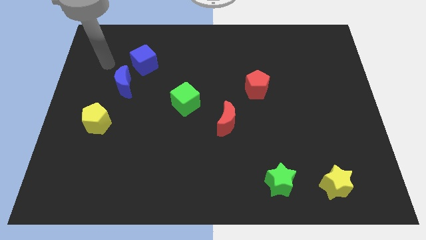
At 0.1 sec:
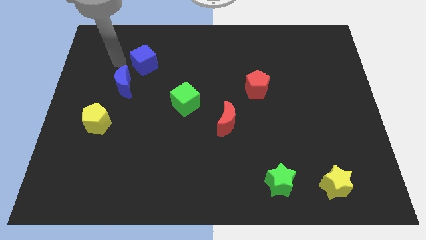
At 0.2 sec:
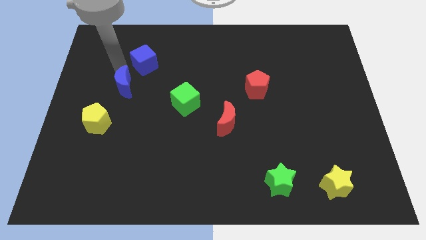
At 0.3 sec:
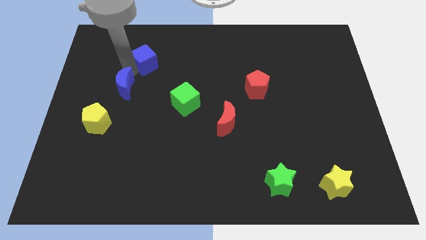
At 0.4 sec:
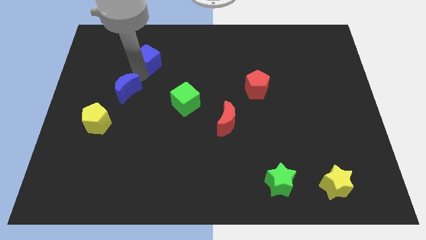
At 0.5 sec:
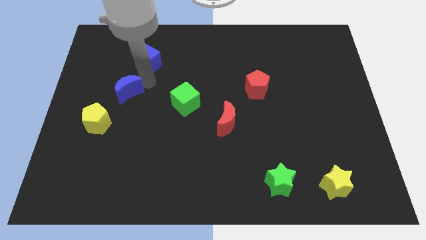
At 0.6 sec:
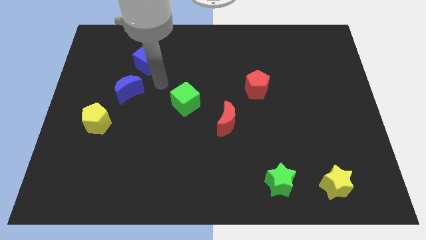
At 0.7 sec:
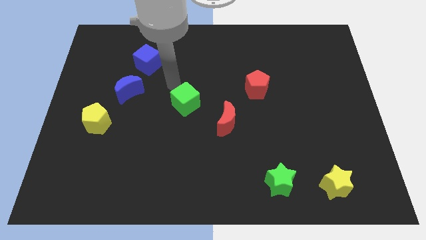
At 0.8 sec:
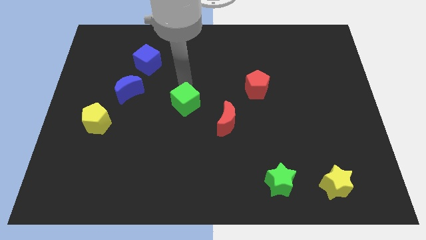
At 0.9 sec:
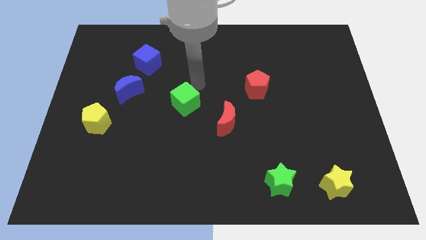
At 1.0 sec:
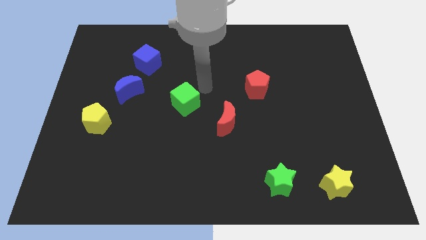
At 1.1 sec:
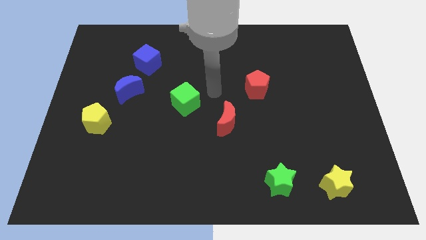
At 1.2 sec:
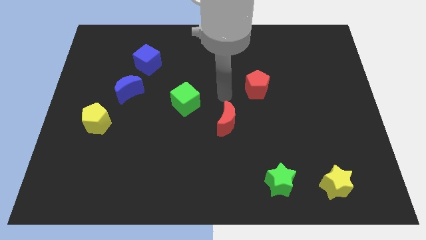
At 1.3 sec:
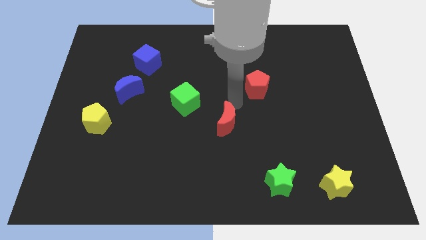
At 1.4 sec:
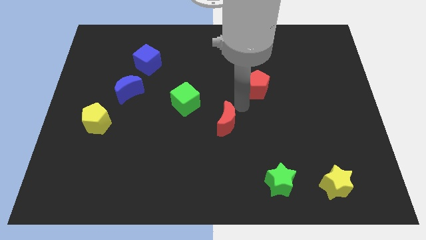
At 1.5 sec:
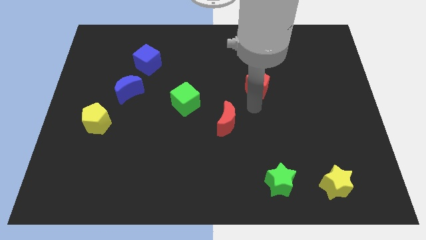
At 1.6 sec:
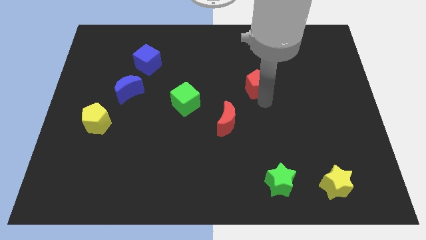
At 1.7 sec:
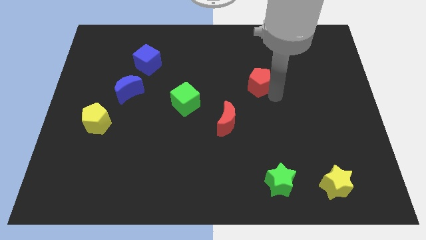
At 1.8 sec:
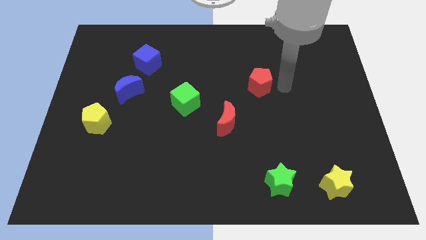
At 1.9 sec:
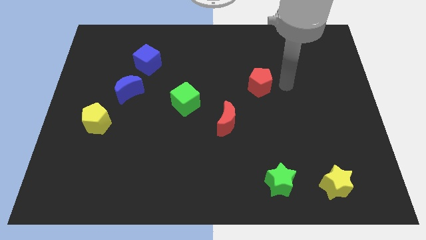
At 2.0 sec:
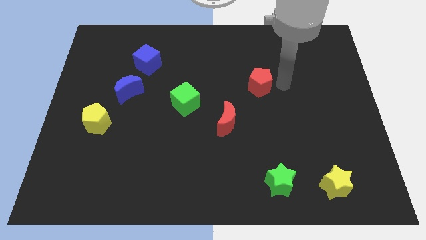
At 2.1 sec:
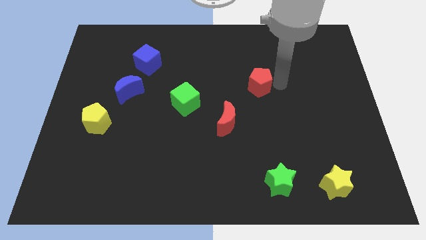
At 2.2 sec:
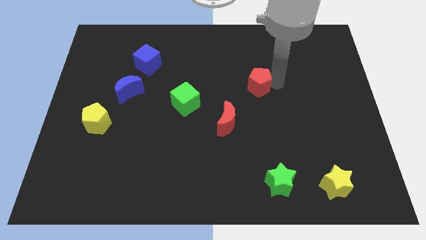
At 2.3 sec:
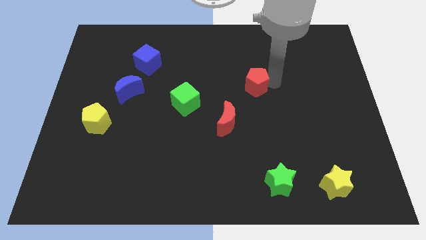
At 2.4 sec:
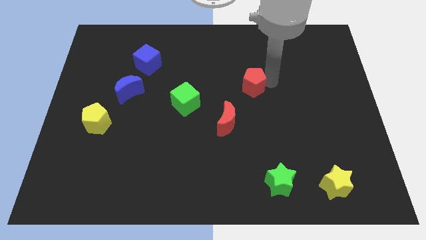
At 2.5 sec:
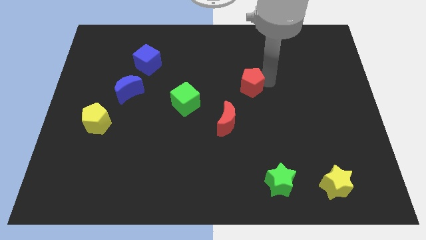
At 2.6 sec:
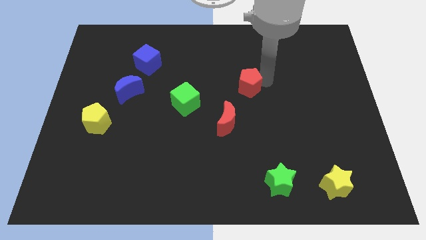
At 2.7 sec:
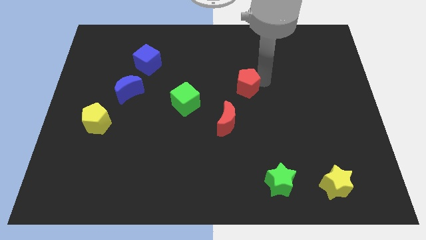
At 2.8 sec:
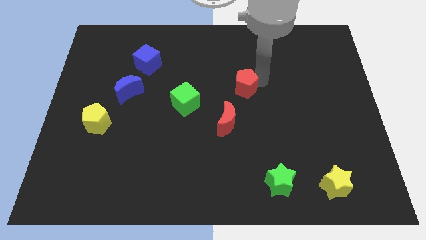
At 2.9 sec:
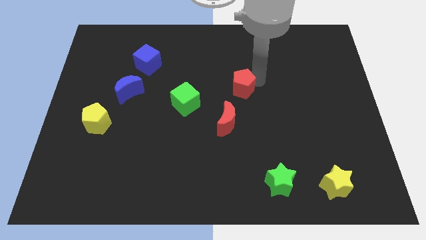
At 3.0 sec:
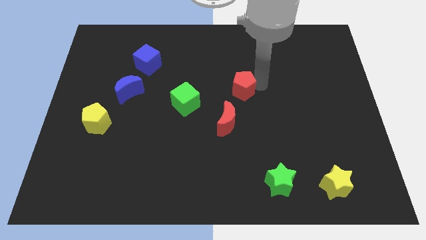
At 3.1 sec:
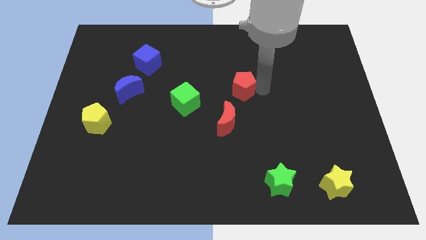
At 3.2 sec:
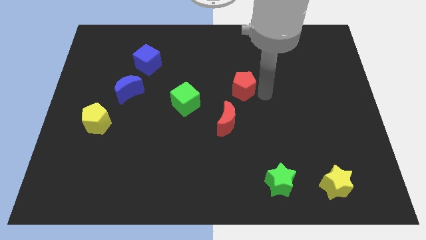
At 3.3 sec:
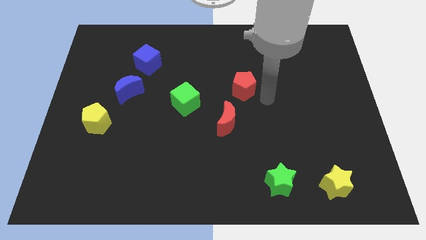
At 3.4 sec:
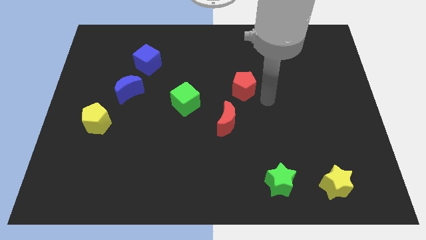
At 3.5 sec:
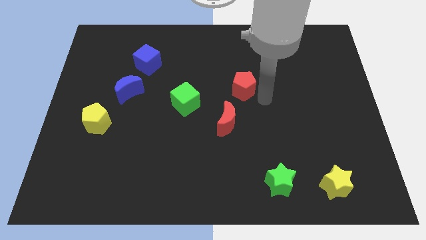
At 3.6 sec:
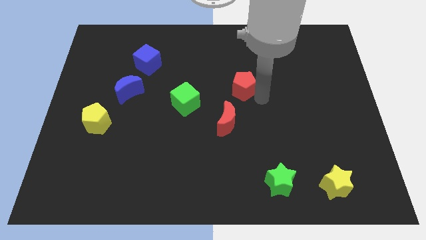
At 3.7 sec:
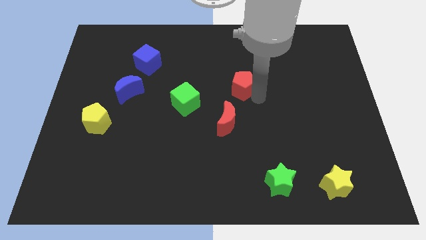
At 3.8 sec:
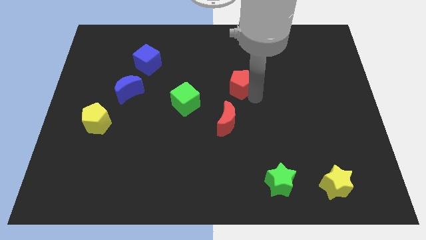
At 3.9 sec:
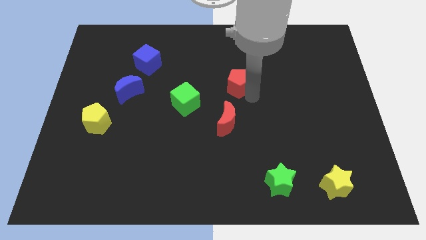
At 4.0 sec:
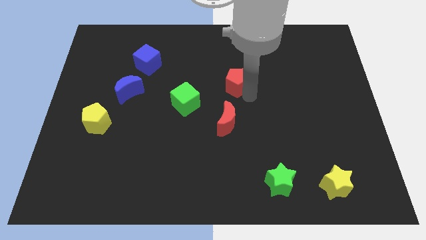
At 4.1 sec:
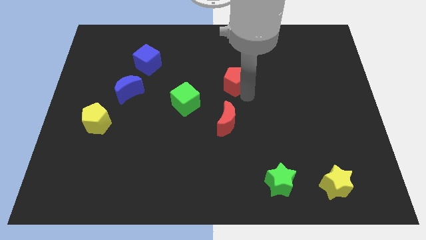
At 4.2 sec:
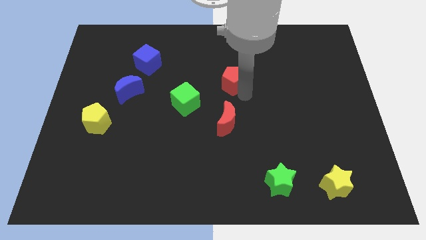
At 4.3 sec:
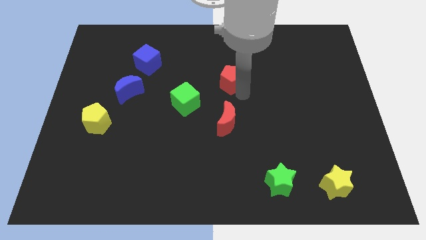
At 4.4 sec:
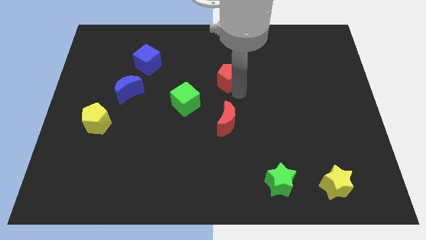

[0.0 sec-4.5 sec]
push the red pentagon a bit left

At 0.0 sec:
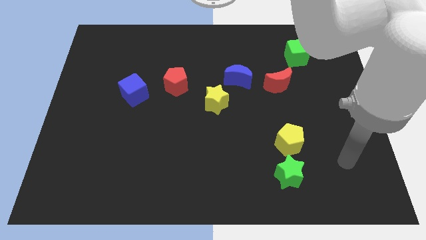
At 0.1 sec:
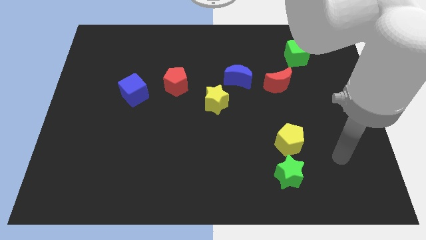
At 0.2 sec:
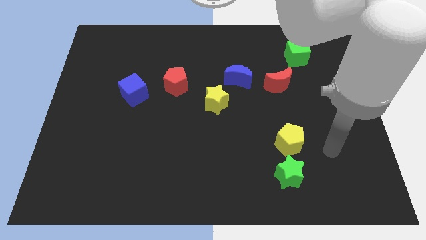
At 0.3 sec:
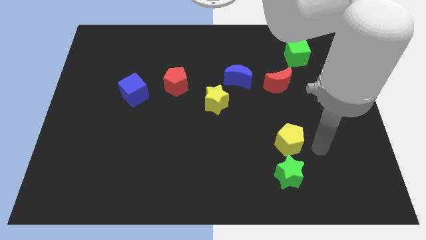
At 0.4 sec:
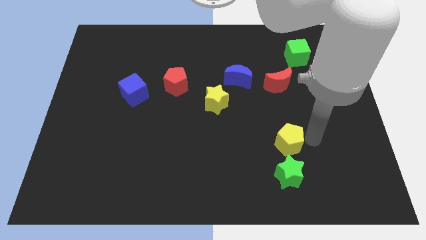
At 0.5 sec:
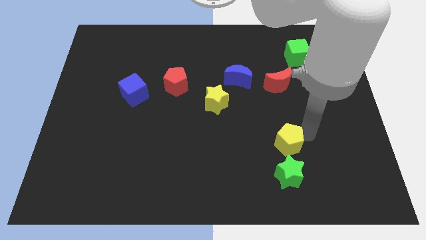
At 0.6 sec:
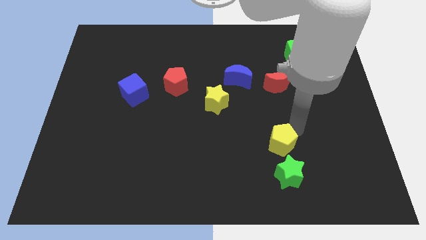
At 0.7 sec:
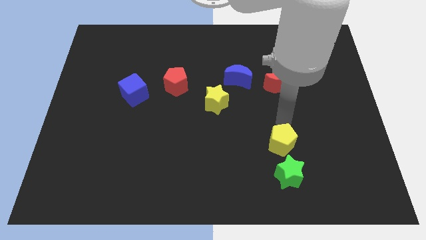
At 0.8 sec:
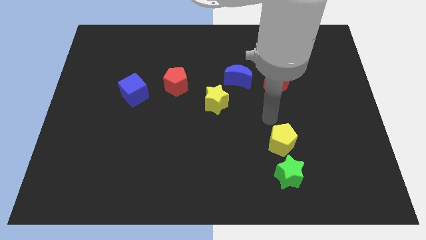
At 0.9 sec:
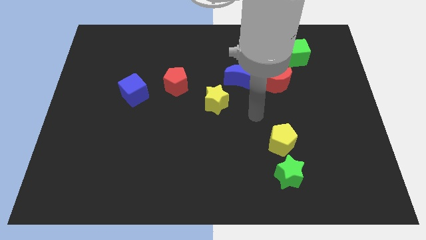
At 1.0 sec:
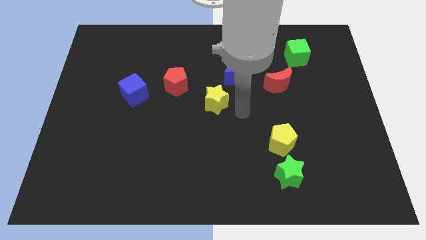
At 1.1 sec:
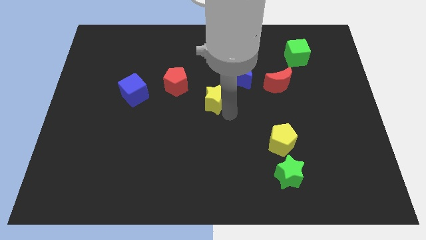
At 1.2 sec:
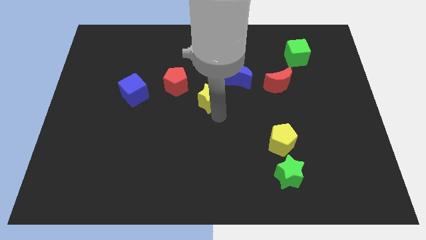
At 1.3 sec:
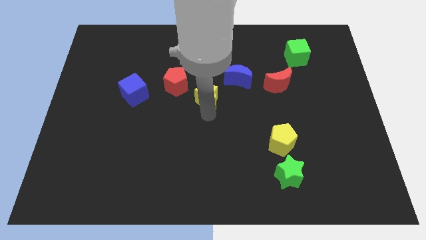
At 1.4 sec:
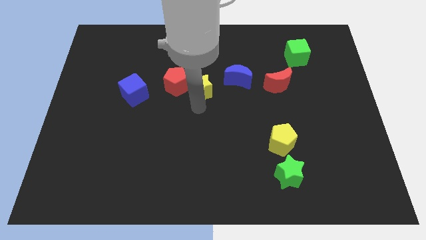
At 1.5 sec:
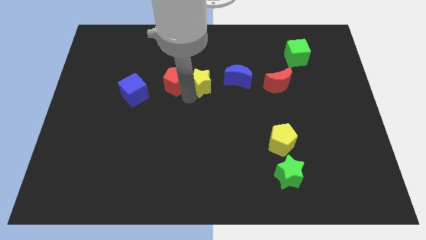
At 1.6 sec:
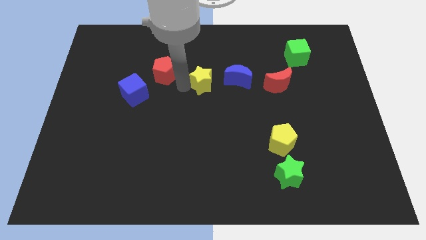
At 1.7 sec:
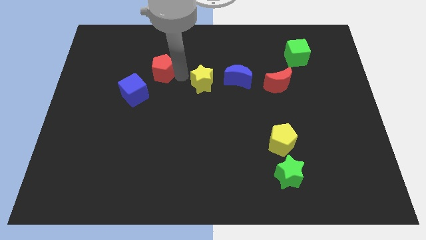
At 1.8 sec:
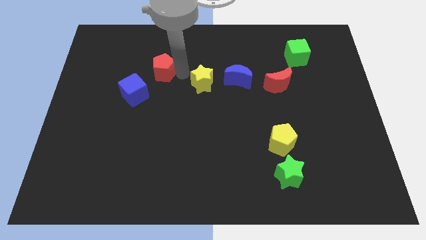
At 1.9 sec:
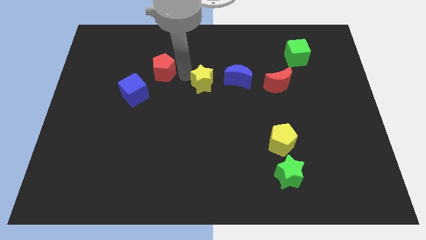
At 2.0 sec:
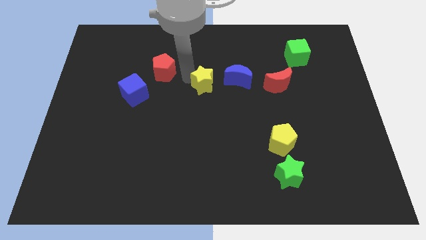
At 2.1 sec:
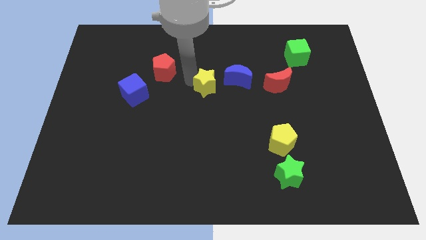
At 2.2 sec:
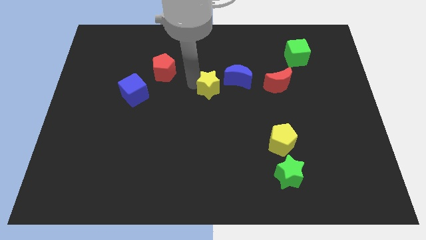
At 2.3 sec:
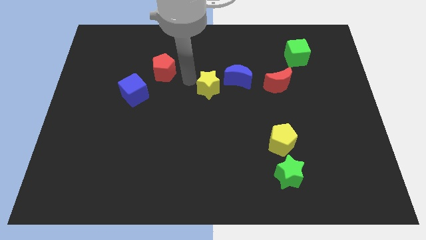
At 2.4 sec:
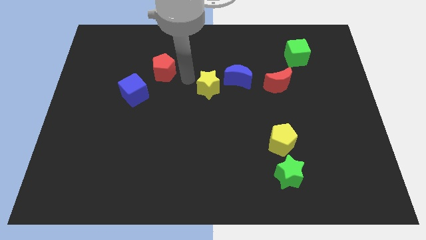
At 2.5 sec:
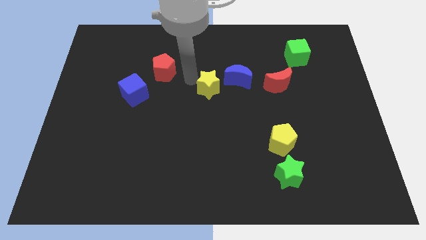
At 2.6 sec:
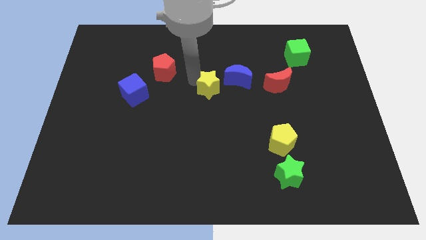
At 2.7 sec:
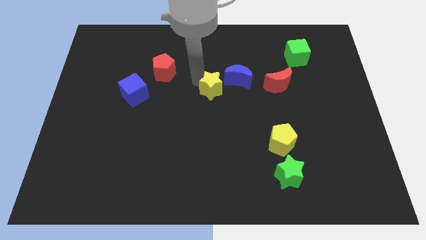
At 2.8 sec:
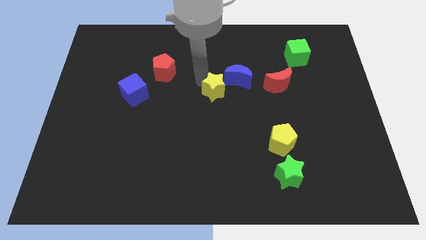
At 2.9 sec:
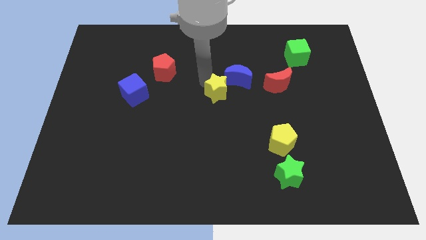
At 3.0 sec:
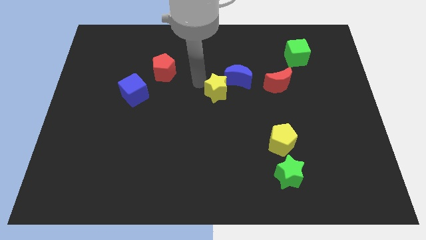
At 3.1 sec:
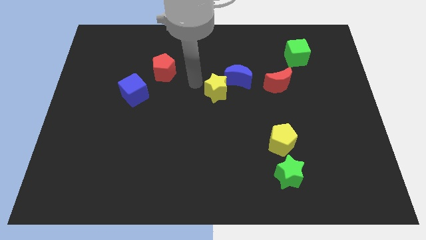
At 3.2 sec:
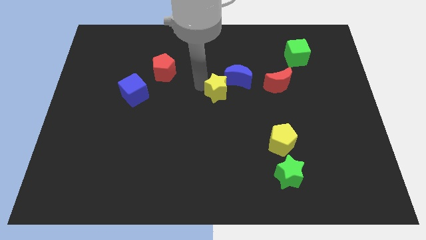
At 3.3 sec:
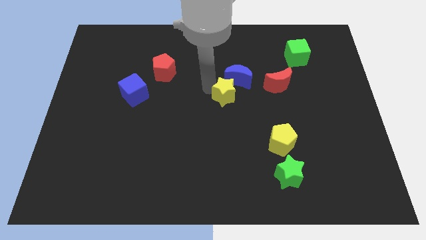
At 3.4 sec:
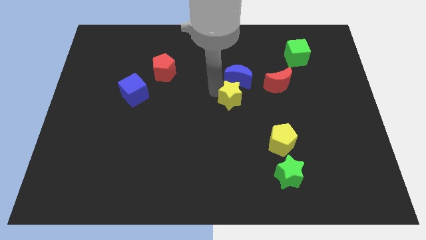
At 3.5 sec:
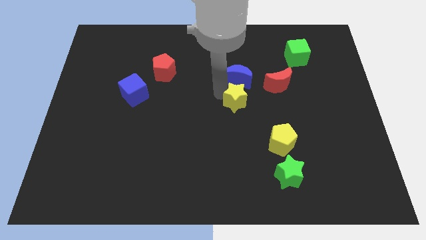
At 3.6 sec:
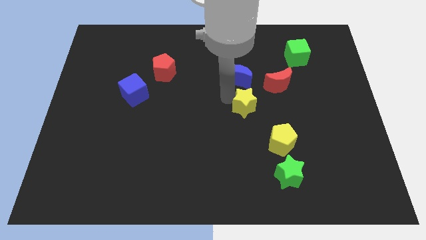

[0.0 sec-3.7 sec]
slightly slide the yellow star to the right
